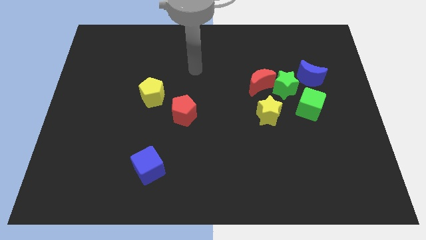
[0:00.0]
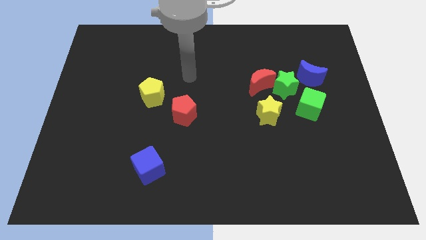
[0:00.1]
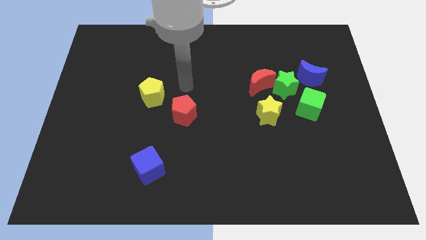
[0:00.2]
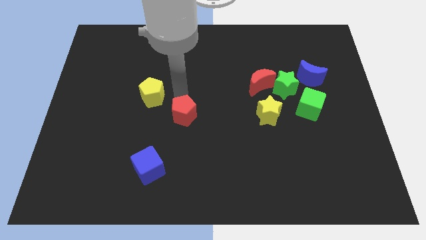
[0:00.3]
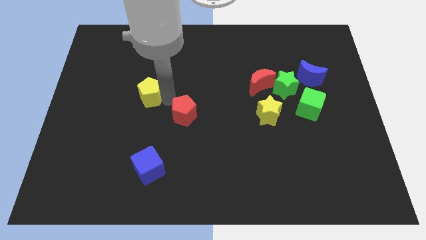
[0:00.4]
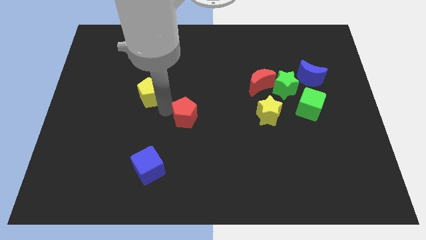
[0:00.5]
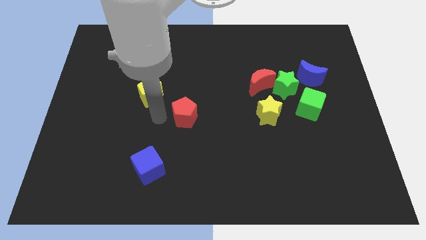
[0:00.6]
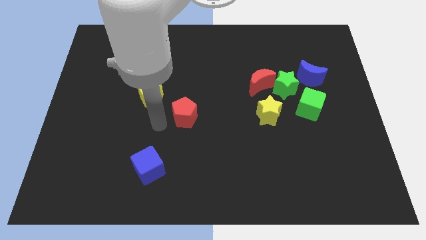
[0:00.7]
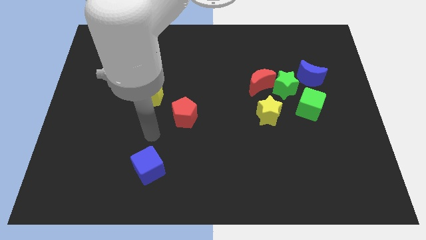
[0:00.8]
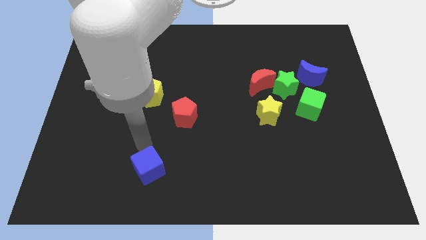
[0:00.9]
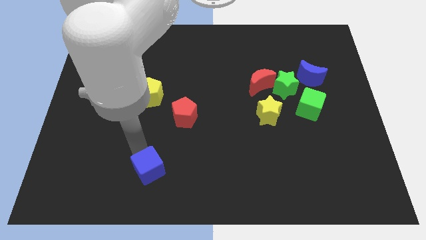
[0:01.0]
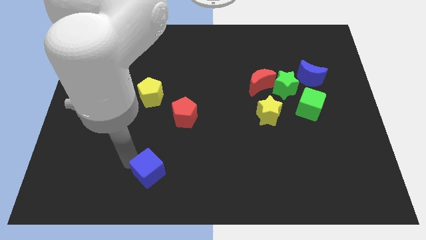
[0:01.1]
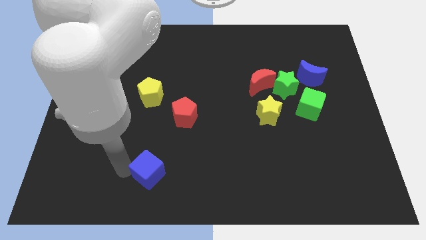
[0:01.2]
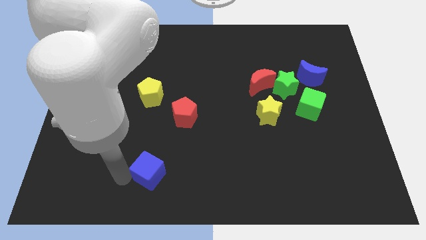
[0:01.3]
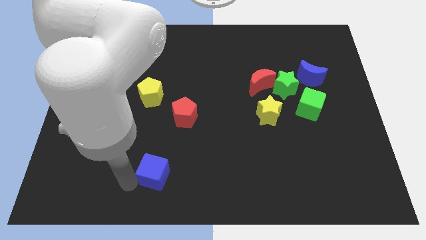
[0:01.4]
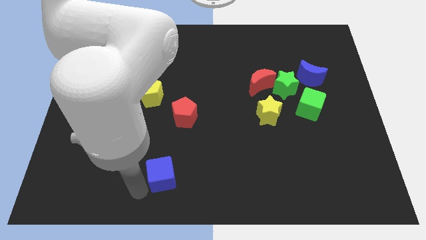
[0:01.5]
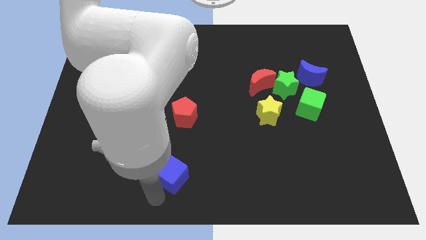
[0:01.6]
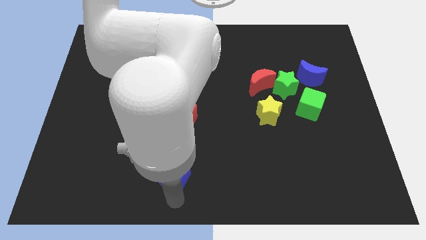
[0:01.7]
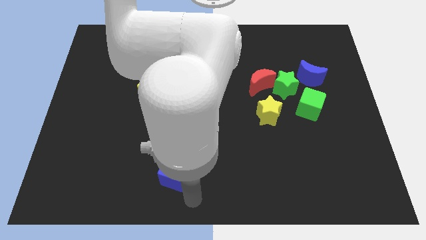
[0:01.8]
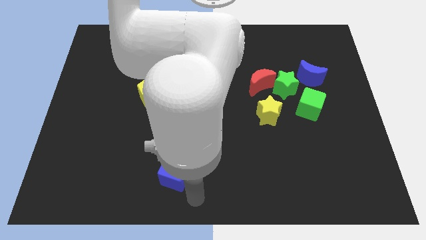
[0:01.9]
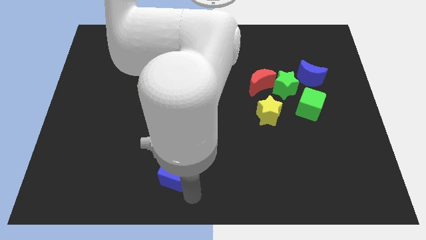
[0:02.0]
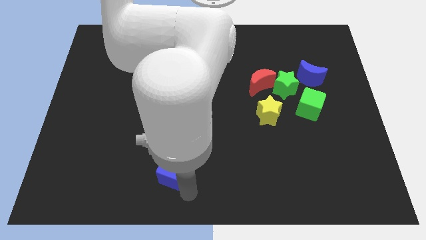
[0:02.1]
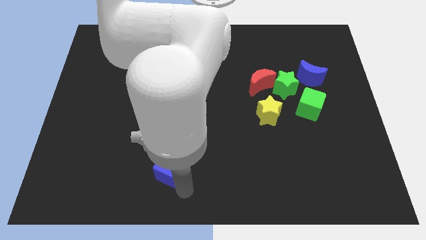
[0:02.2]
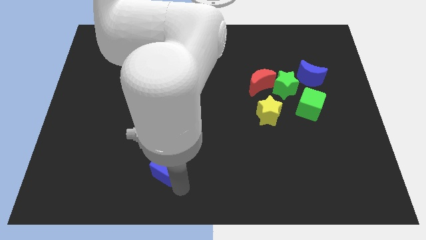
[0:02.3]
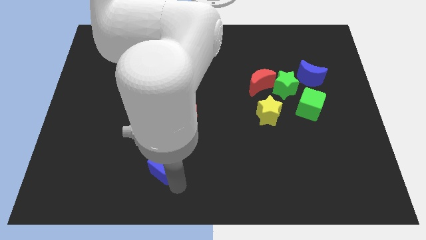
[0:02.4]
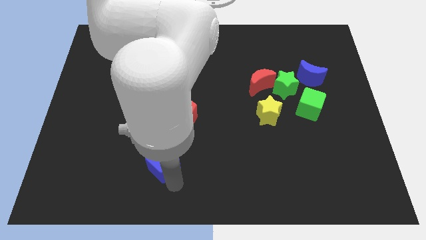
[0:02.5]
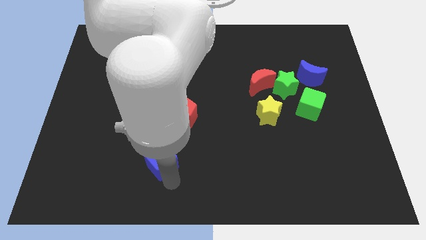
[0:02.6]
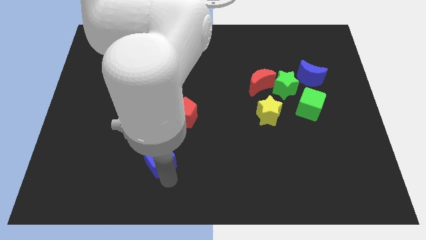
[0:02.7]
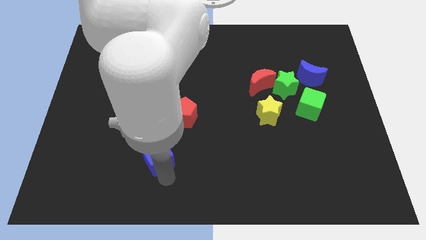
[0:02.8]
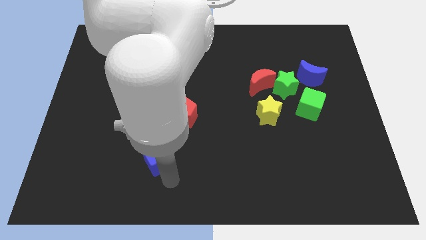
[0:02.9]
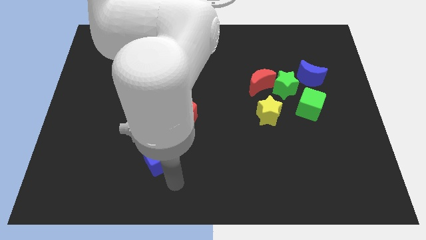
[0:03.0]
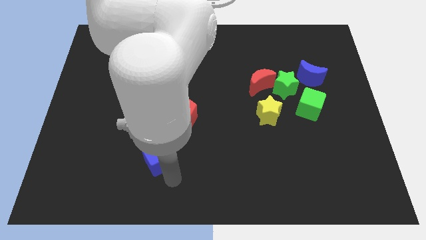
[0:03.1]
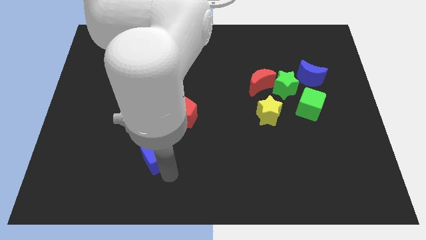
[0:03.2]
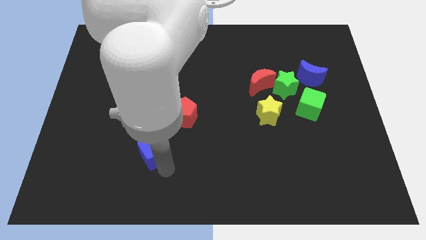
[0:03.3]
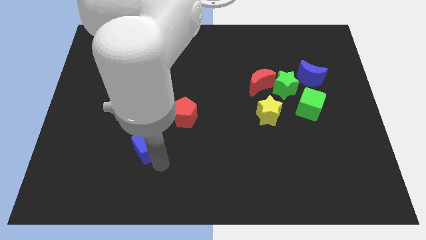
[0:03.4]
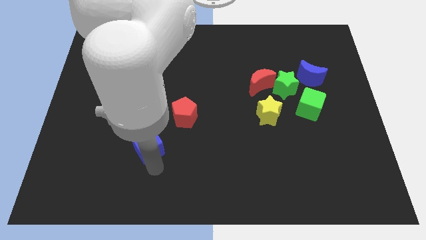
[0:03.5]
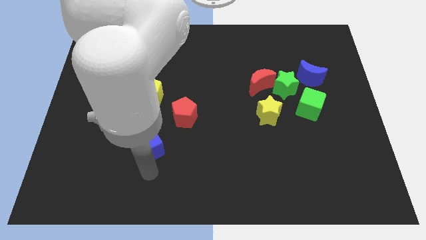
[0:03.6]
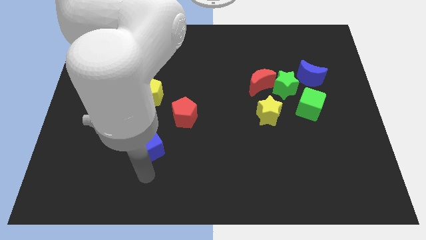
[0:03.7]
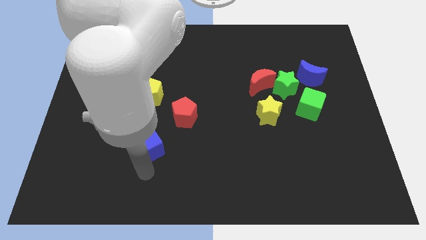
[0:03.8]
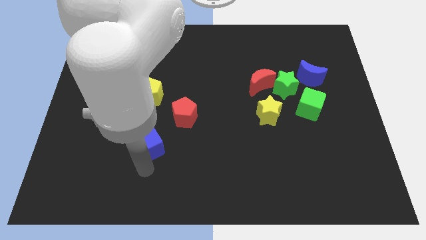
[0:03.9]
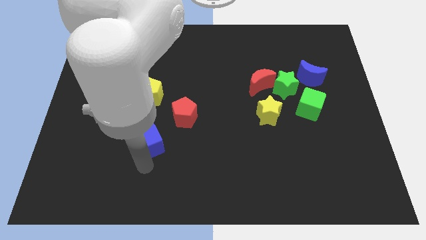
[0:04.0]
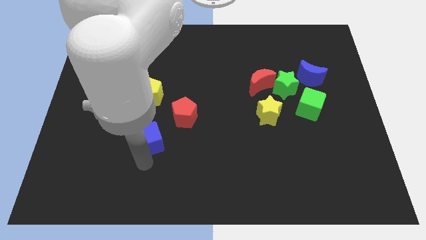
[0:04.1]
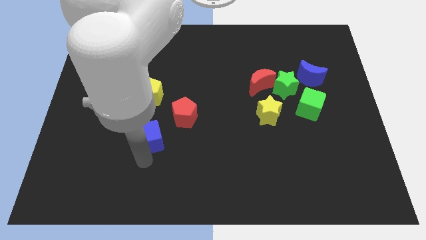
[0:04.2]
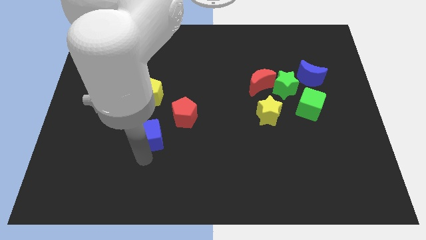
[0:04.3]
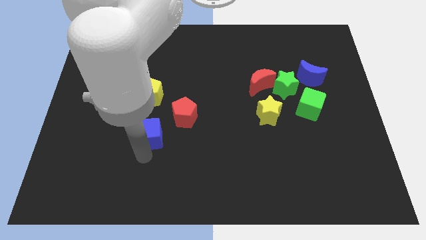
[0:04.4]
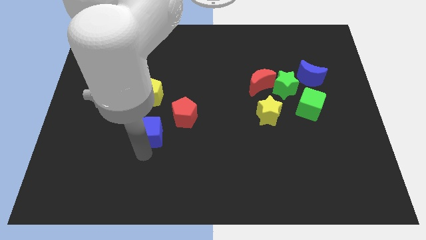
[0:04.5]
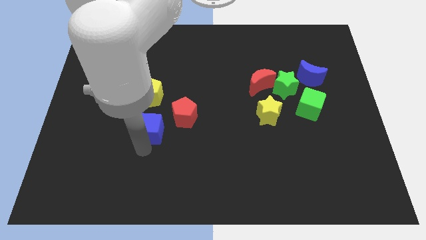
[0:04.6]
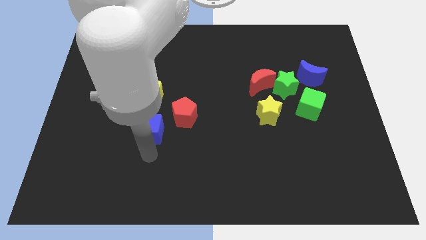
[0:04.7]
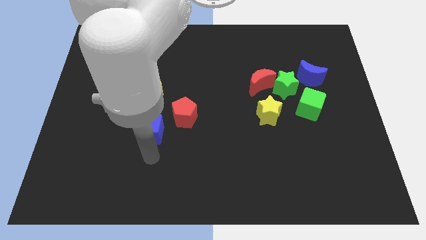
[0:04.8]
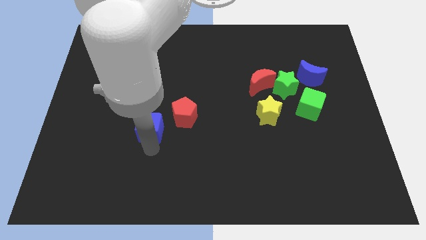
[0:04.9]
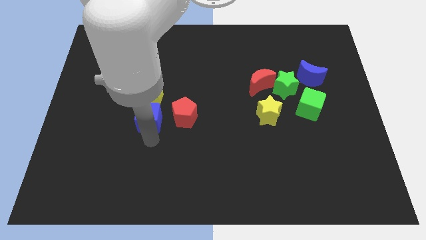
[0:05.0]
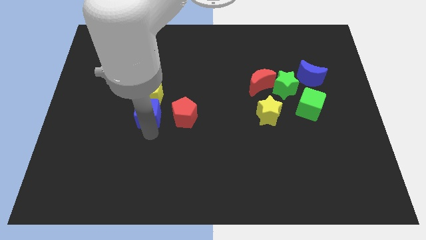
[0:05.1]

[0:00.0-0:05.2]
move the blue cube next to the yellow pentagon

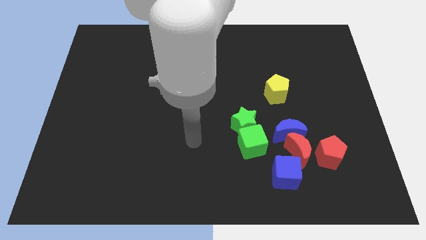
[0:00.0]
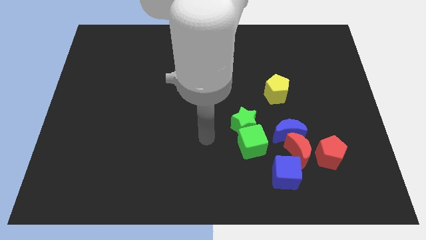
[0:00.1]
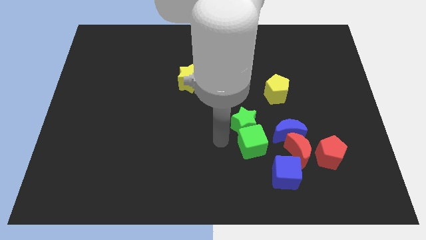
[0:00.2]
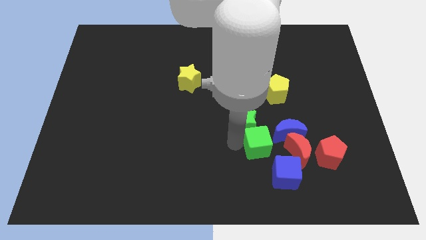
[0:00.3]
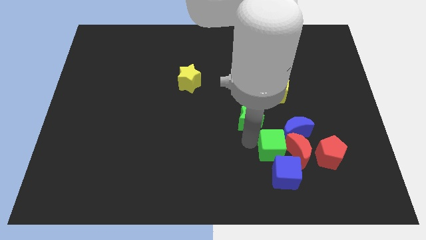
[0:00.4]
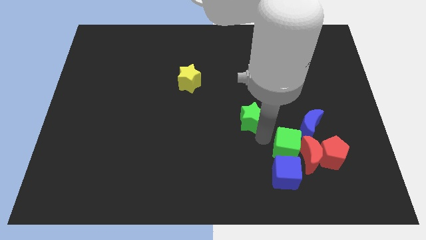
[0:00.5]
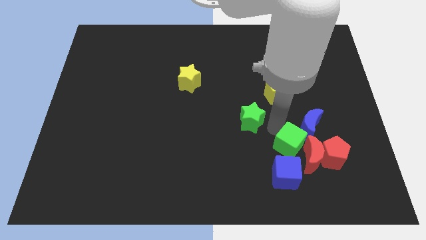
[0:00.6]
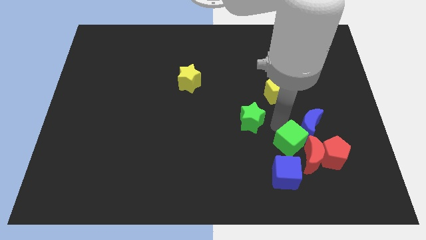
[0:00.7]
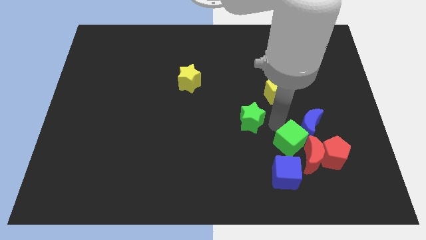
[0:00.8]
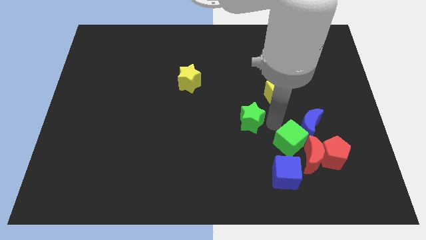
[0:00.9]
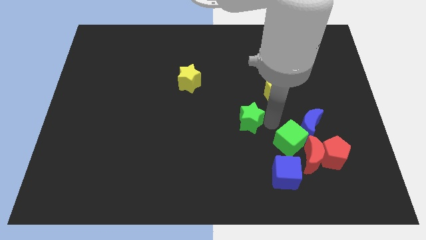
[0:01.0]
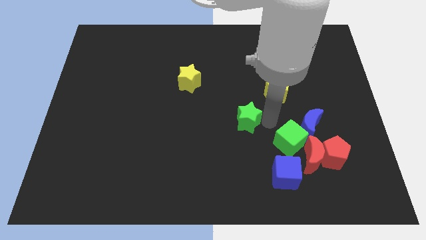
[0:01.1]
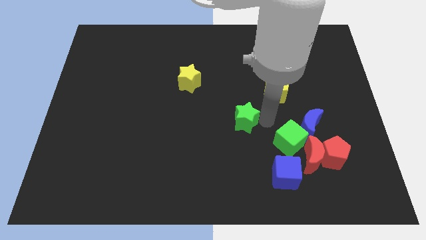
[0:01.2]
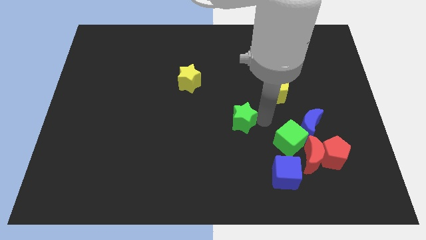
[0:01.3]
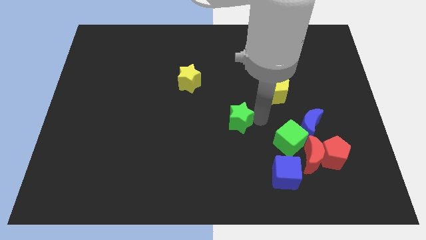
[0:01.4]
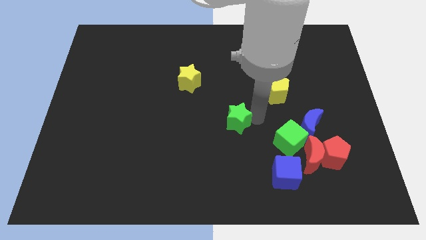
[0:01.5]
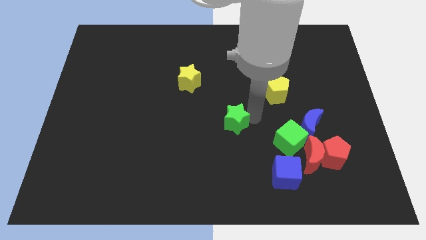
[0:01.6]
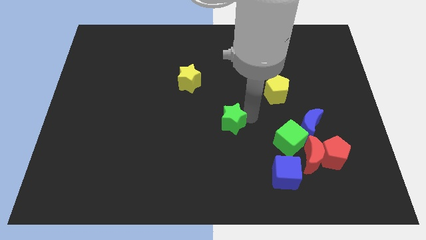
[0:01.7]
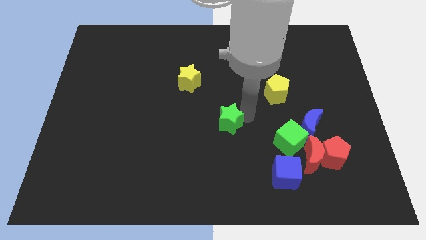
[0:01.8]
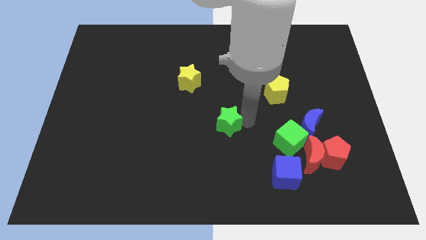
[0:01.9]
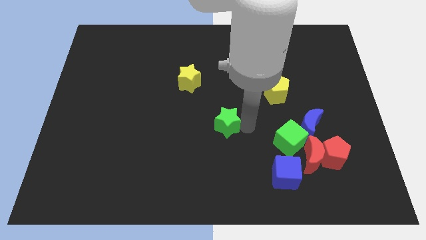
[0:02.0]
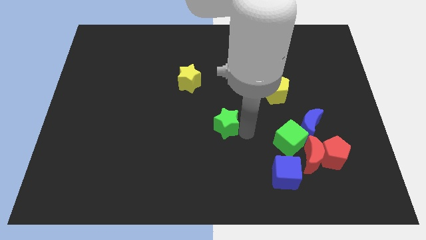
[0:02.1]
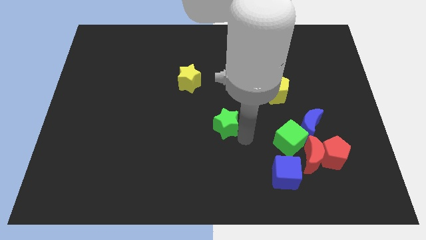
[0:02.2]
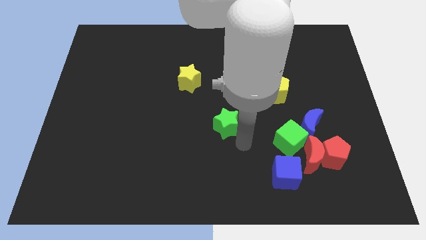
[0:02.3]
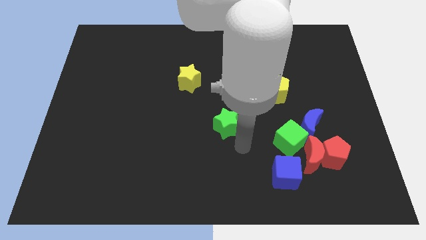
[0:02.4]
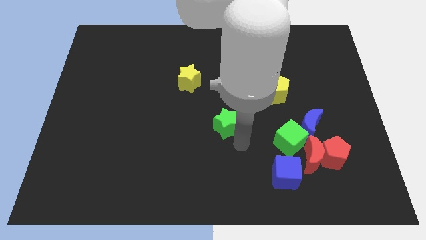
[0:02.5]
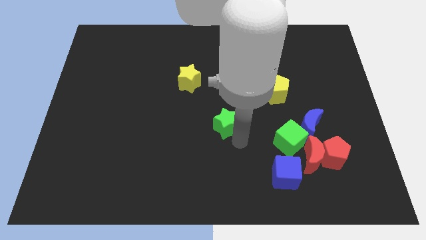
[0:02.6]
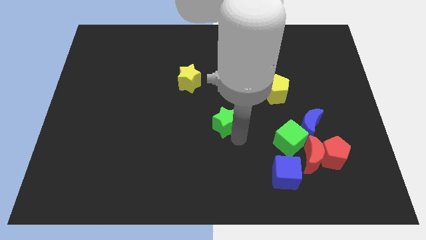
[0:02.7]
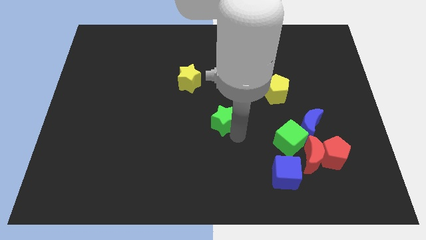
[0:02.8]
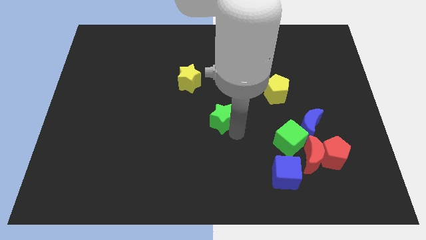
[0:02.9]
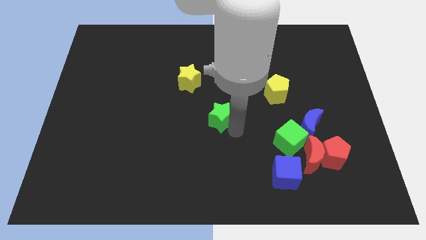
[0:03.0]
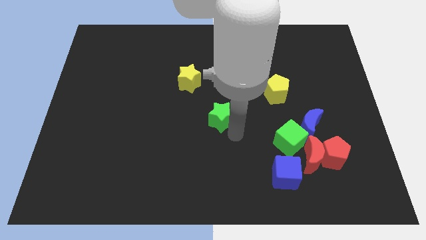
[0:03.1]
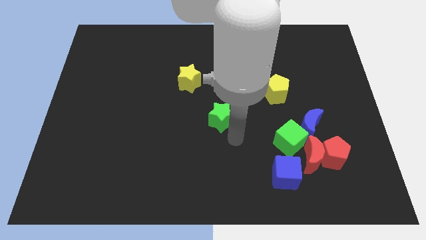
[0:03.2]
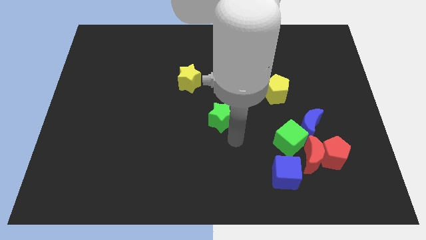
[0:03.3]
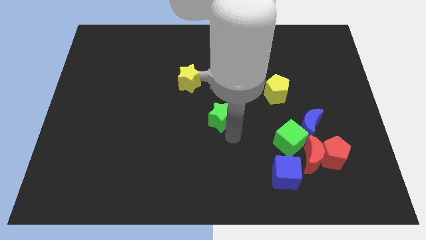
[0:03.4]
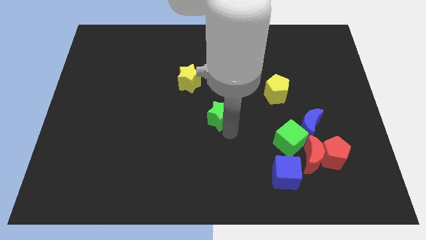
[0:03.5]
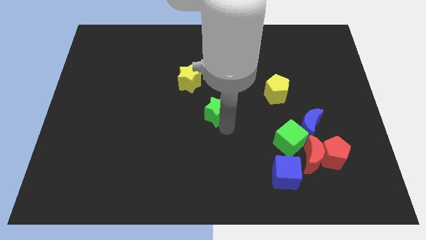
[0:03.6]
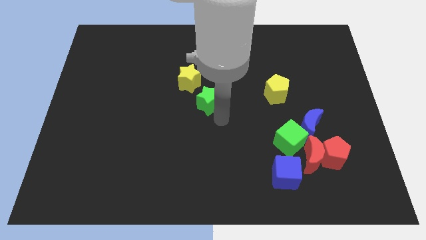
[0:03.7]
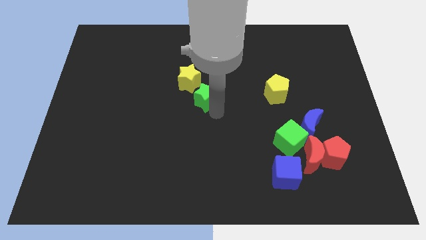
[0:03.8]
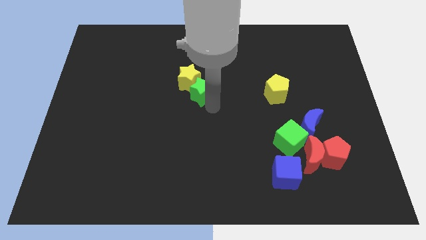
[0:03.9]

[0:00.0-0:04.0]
move the green star next to the yellow star
